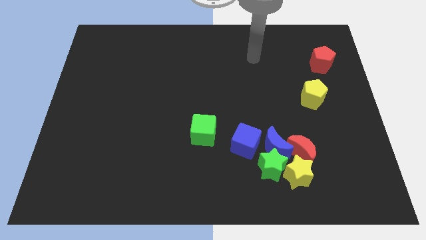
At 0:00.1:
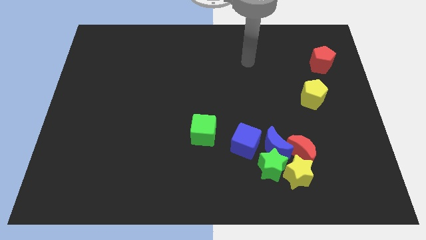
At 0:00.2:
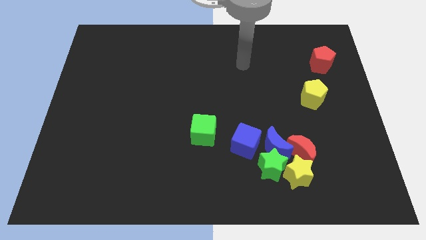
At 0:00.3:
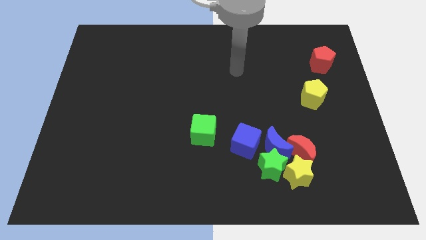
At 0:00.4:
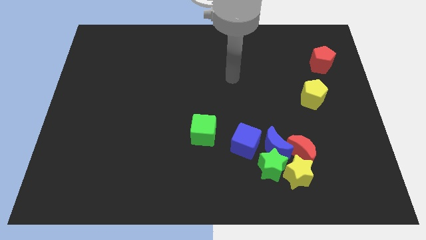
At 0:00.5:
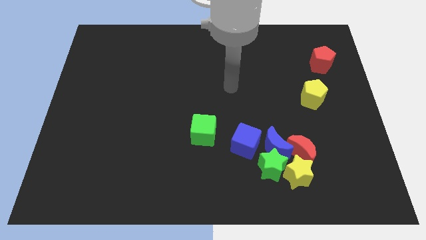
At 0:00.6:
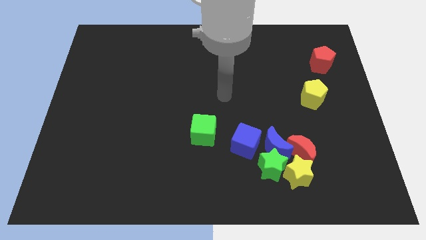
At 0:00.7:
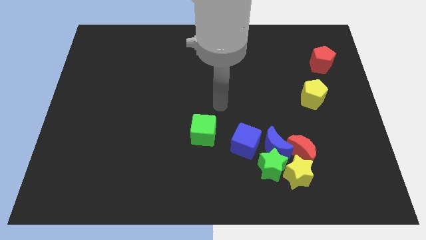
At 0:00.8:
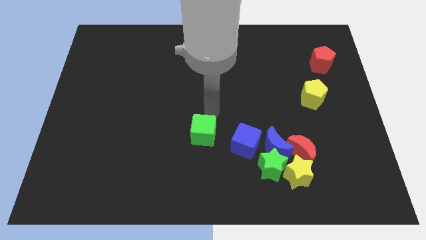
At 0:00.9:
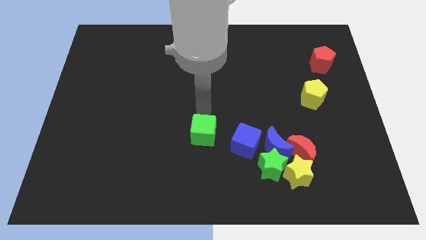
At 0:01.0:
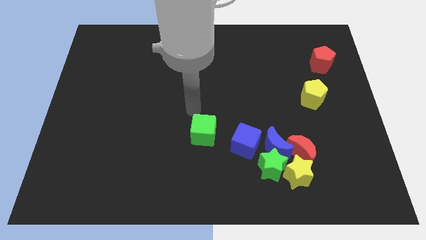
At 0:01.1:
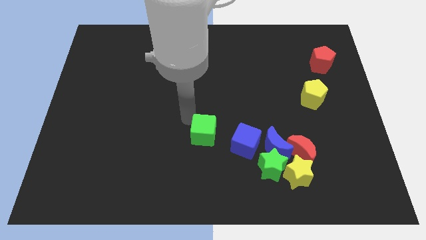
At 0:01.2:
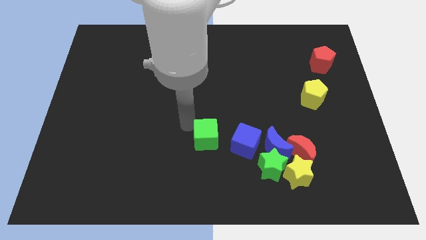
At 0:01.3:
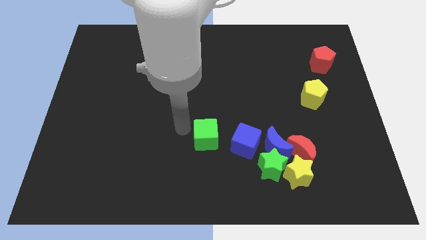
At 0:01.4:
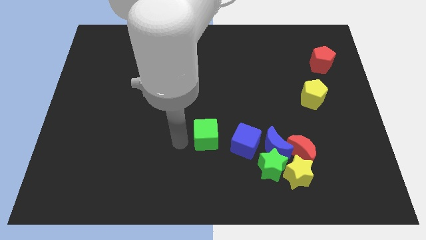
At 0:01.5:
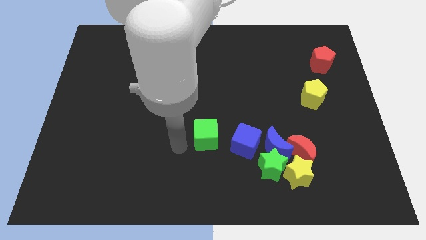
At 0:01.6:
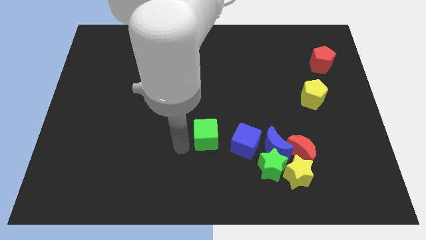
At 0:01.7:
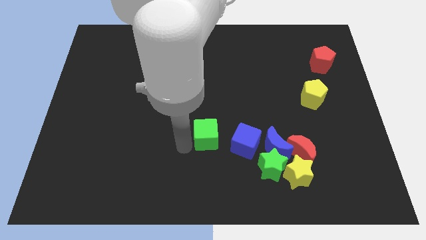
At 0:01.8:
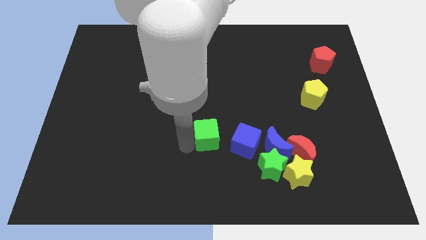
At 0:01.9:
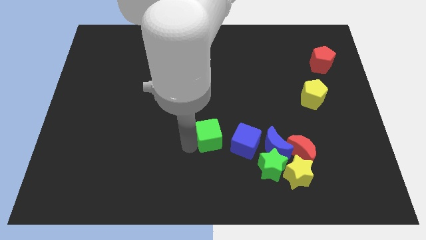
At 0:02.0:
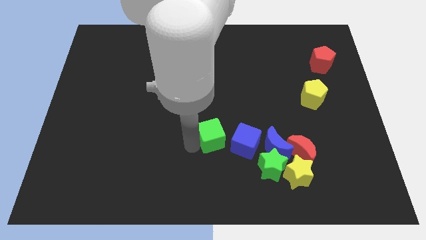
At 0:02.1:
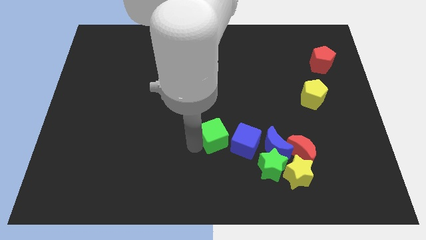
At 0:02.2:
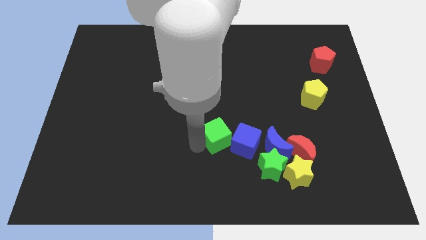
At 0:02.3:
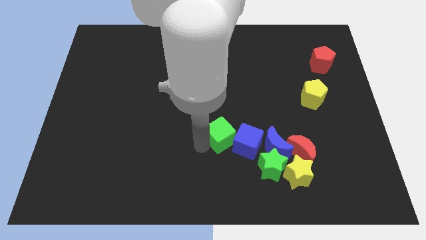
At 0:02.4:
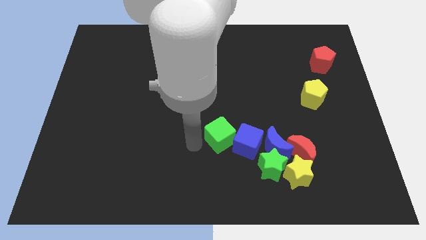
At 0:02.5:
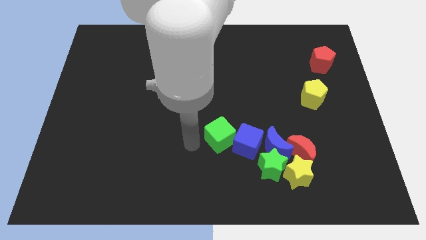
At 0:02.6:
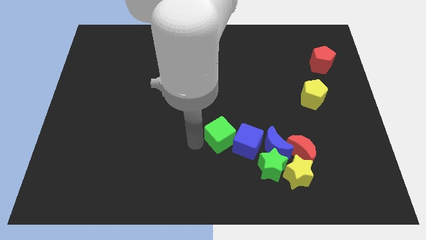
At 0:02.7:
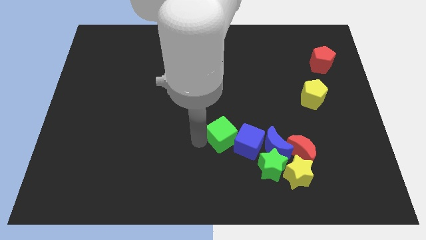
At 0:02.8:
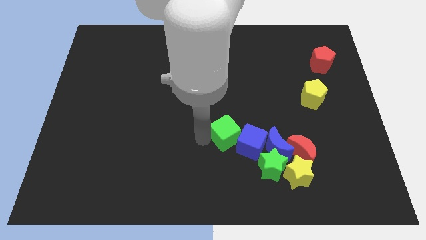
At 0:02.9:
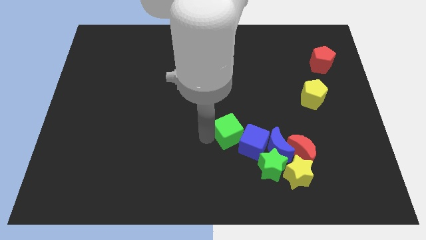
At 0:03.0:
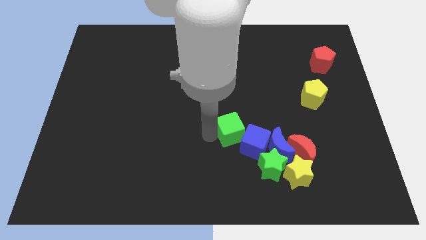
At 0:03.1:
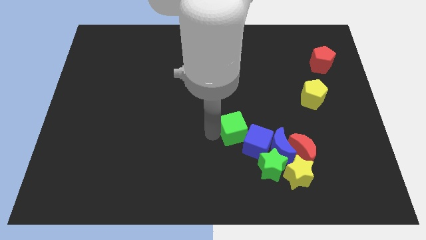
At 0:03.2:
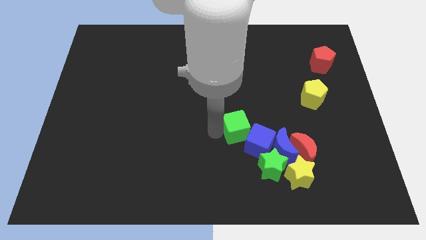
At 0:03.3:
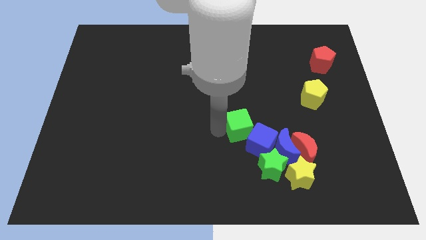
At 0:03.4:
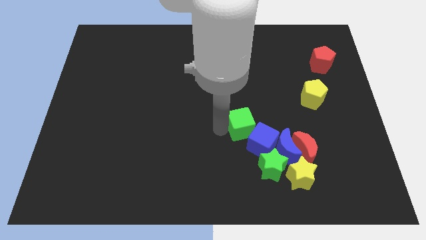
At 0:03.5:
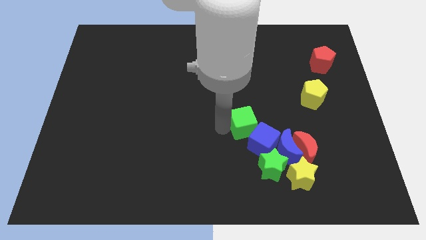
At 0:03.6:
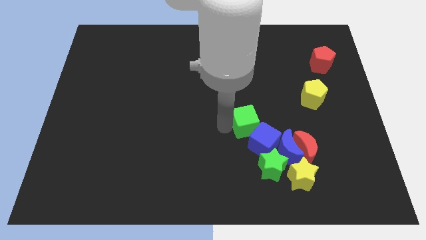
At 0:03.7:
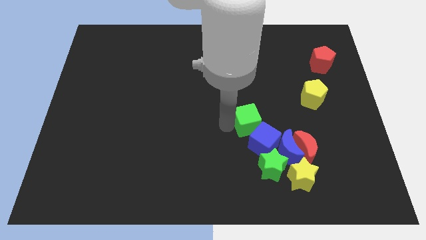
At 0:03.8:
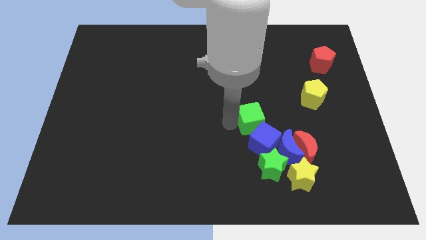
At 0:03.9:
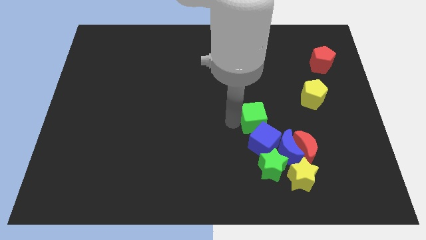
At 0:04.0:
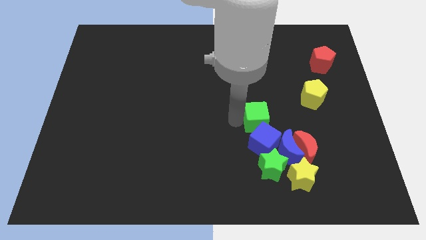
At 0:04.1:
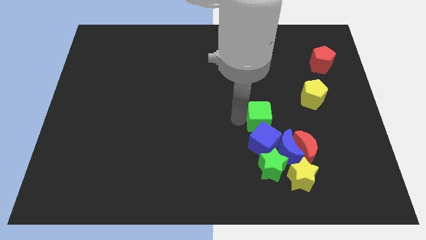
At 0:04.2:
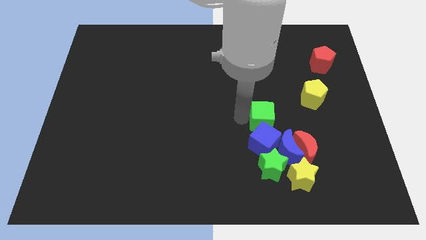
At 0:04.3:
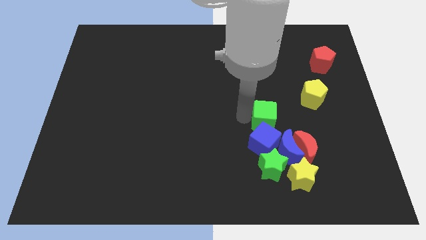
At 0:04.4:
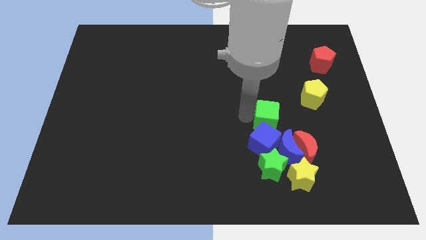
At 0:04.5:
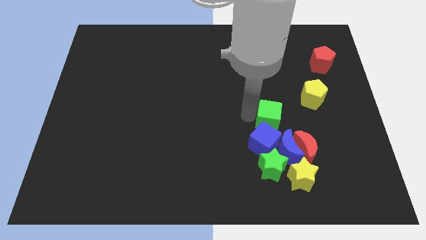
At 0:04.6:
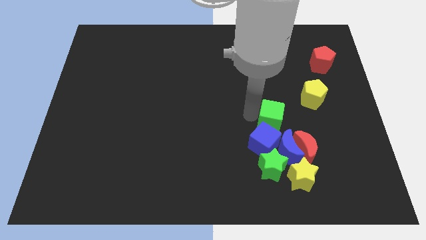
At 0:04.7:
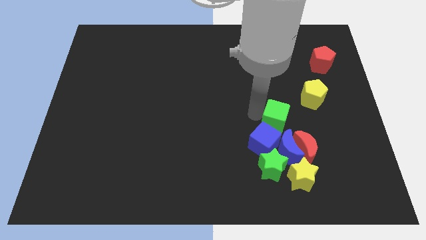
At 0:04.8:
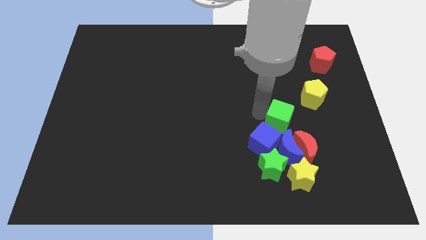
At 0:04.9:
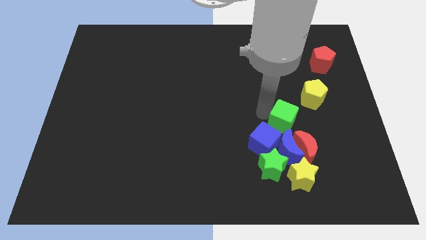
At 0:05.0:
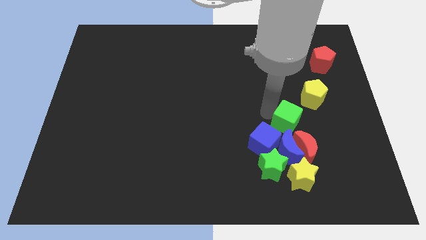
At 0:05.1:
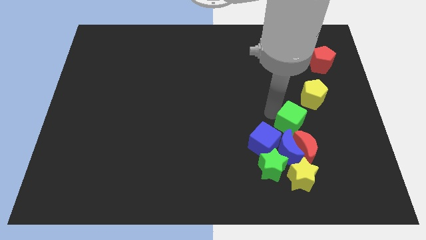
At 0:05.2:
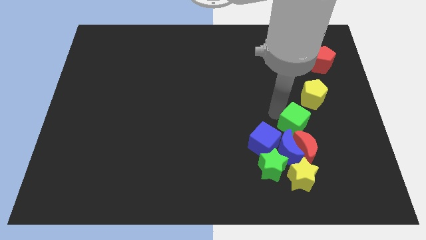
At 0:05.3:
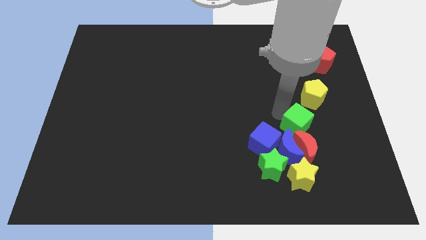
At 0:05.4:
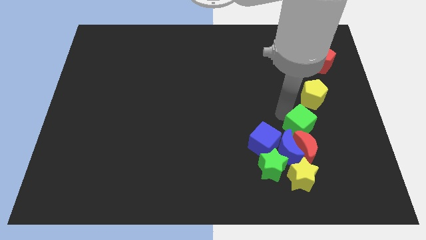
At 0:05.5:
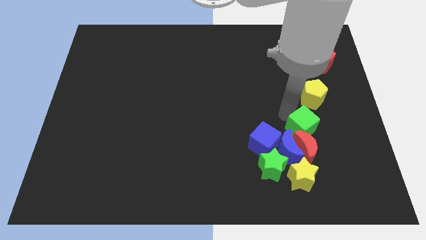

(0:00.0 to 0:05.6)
move the green cube towards the red moon

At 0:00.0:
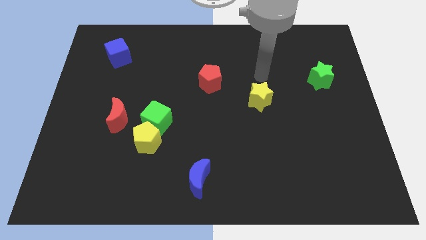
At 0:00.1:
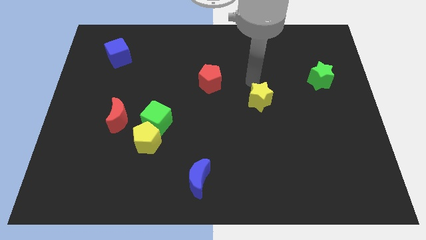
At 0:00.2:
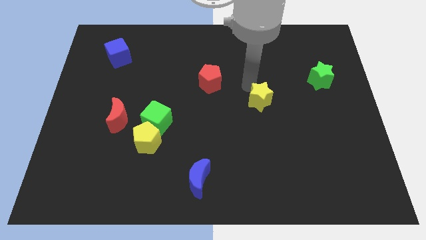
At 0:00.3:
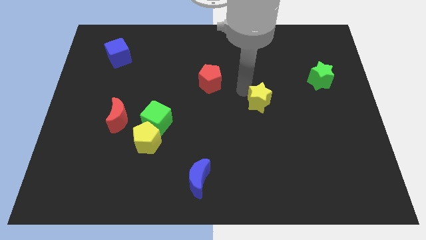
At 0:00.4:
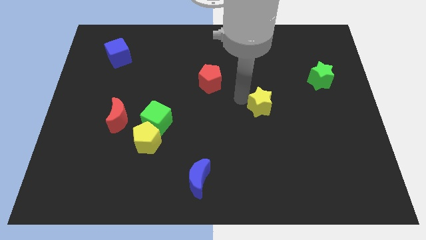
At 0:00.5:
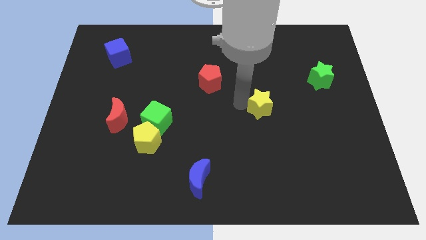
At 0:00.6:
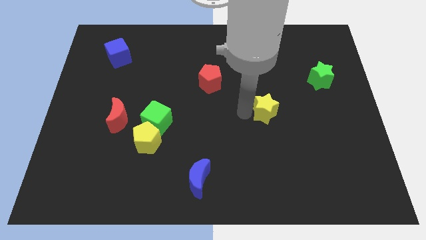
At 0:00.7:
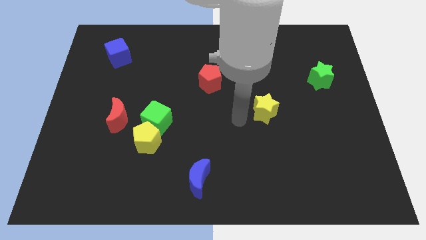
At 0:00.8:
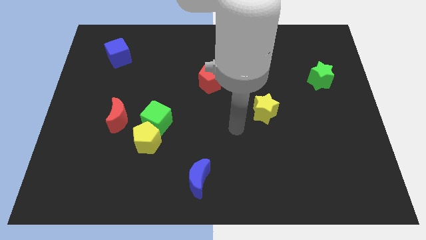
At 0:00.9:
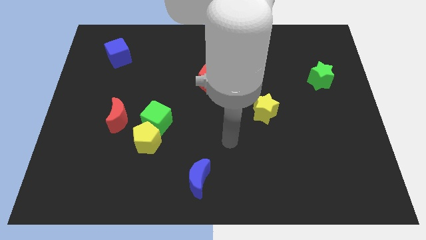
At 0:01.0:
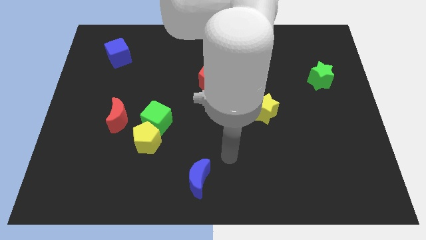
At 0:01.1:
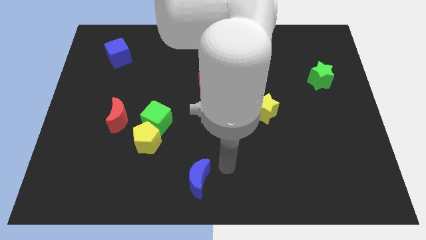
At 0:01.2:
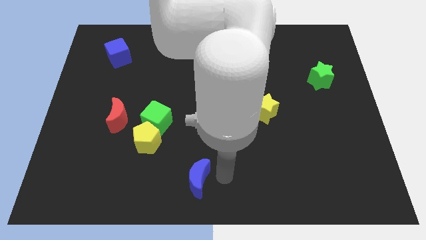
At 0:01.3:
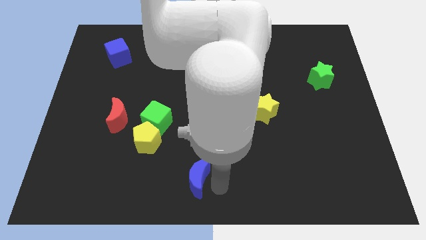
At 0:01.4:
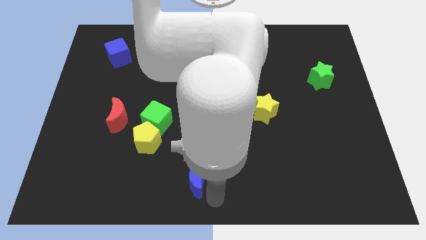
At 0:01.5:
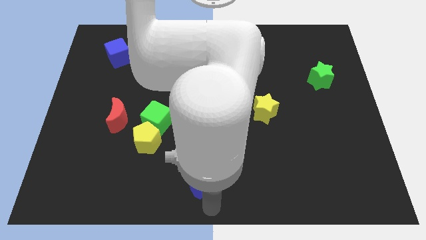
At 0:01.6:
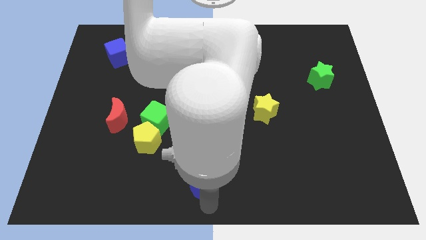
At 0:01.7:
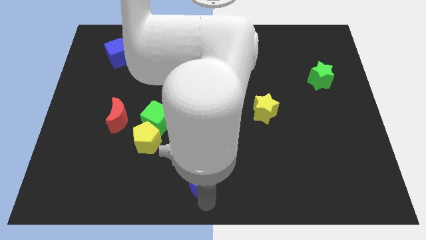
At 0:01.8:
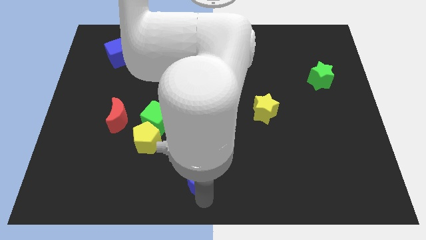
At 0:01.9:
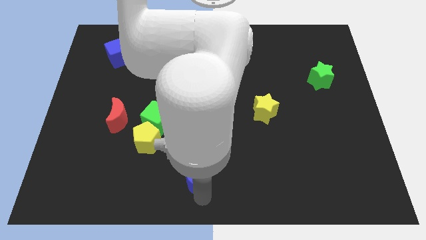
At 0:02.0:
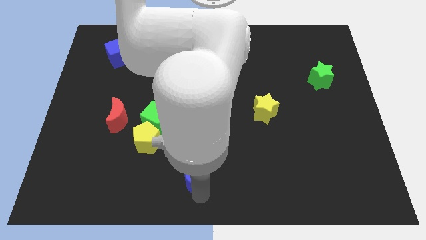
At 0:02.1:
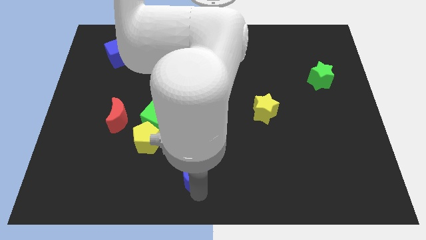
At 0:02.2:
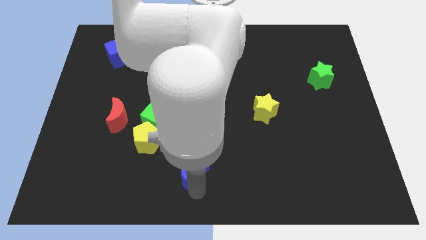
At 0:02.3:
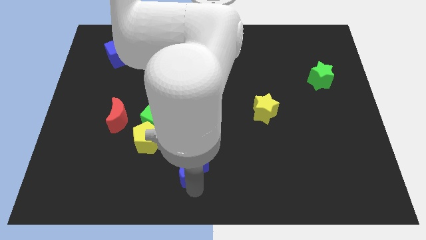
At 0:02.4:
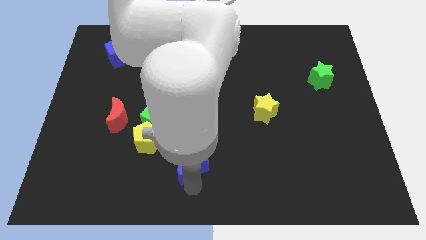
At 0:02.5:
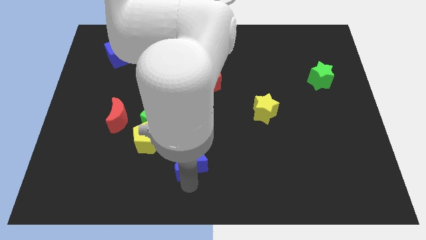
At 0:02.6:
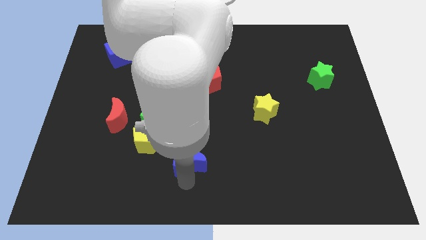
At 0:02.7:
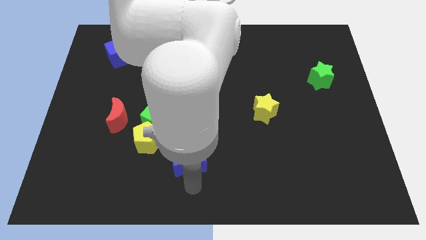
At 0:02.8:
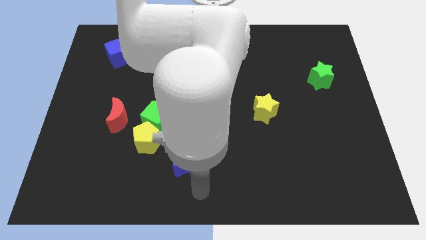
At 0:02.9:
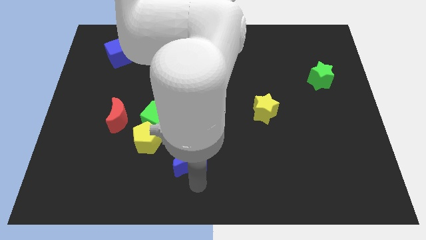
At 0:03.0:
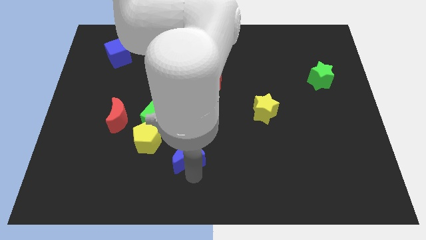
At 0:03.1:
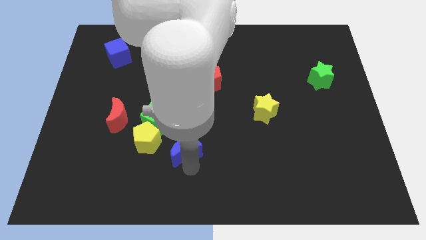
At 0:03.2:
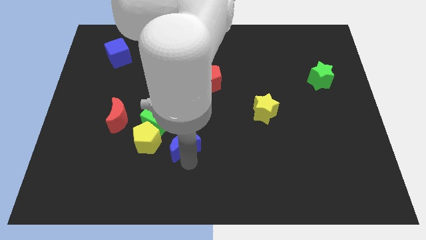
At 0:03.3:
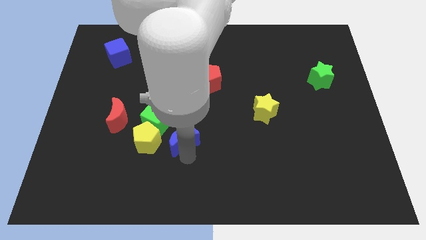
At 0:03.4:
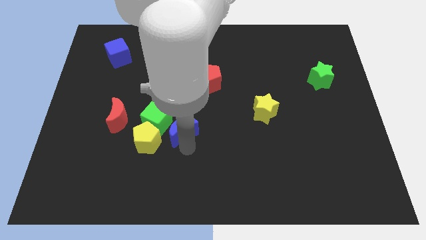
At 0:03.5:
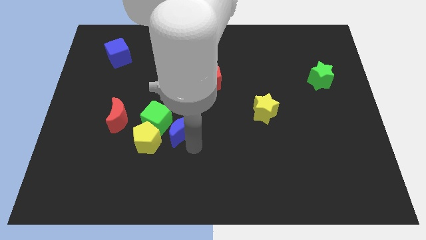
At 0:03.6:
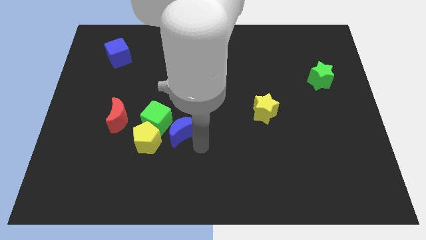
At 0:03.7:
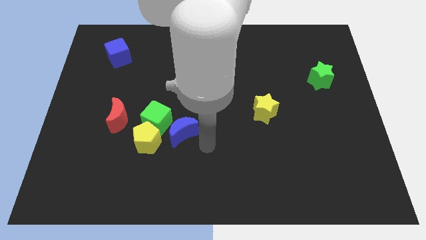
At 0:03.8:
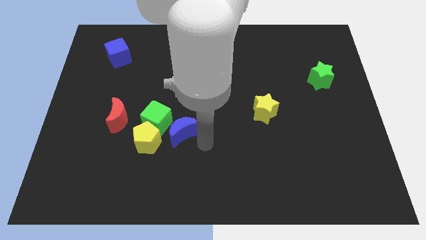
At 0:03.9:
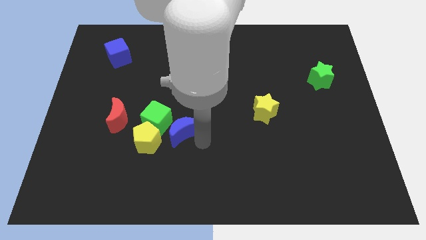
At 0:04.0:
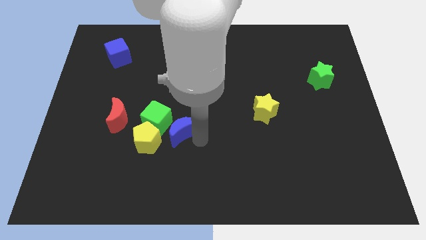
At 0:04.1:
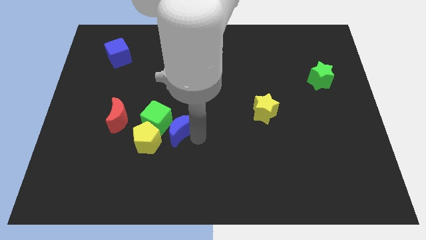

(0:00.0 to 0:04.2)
push the blue moon towards the green cube
